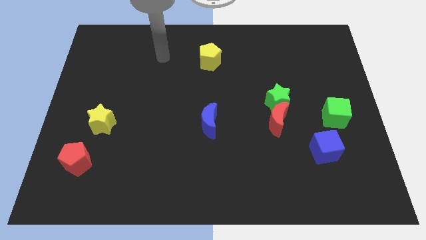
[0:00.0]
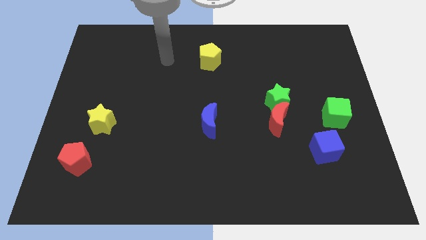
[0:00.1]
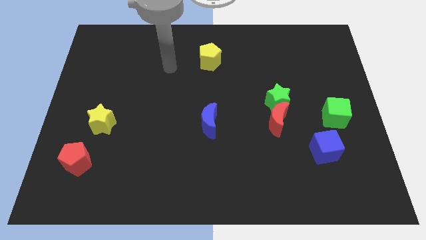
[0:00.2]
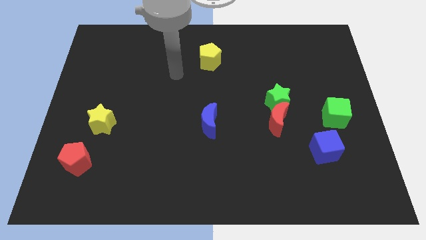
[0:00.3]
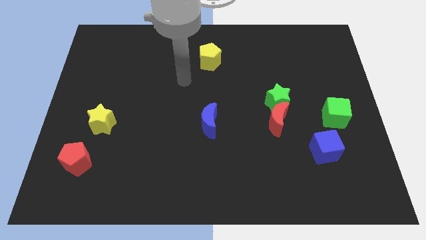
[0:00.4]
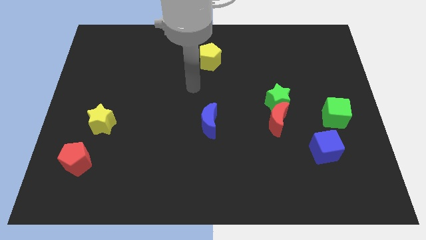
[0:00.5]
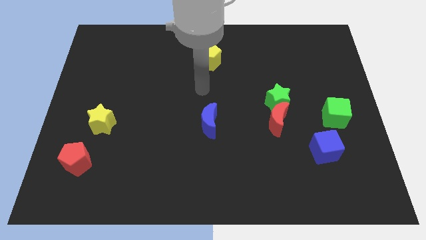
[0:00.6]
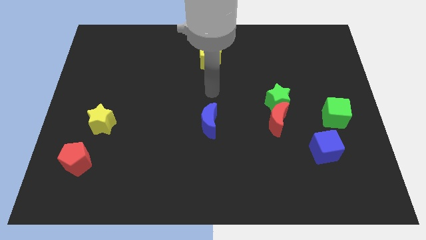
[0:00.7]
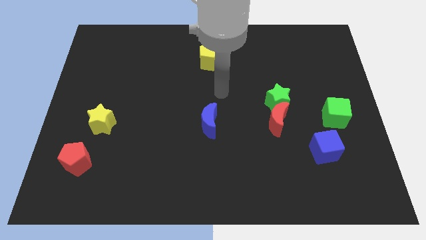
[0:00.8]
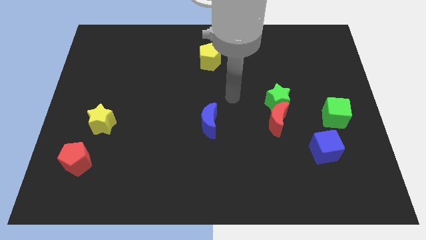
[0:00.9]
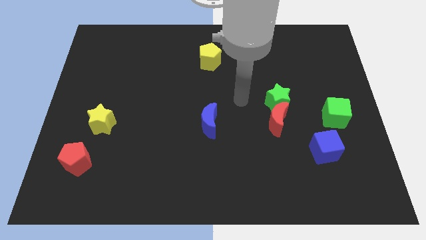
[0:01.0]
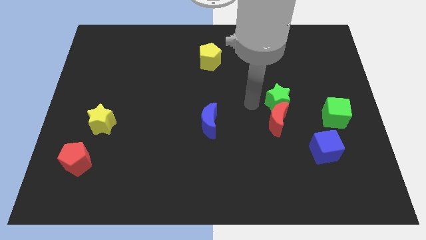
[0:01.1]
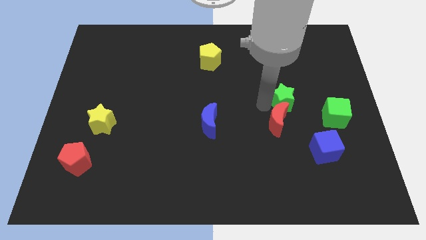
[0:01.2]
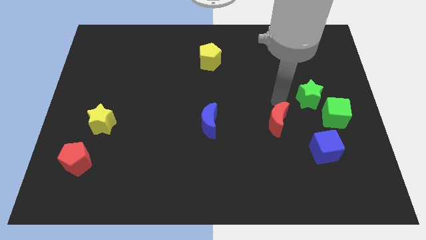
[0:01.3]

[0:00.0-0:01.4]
move the red moon away from the green star

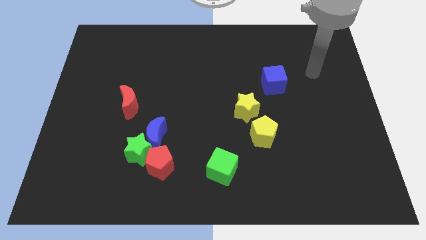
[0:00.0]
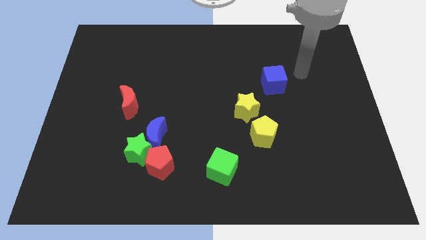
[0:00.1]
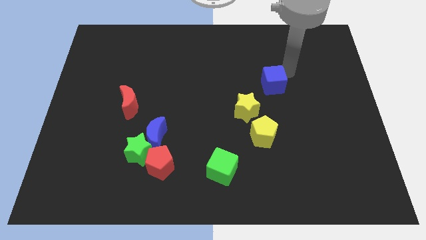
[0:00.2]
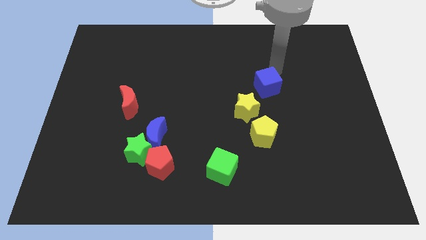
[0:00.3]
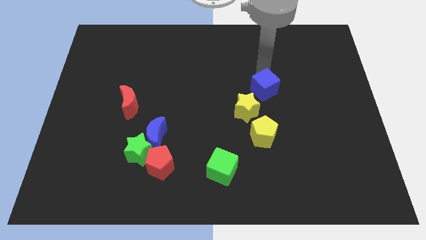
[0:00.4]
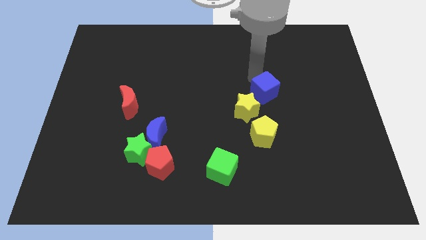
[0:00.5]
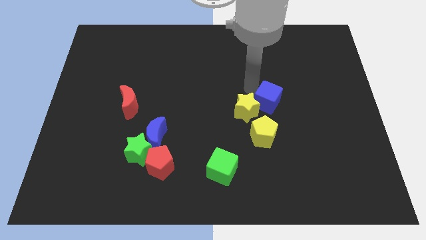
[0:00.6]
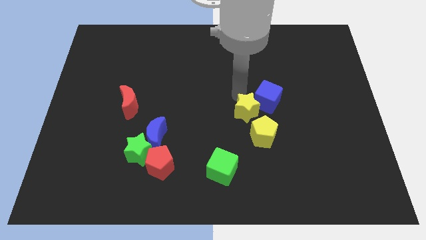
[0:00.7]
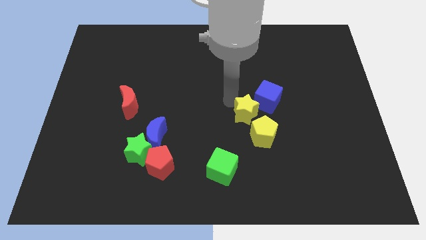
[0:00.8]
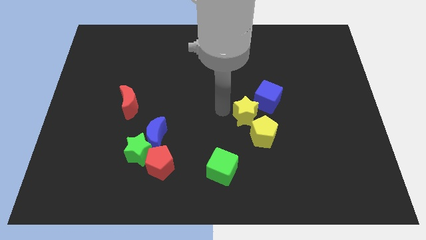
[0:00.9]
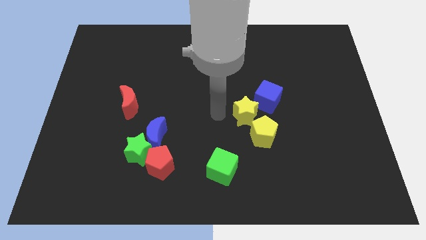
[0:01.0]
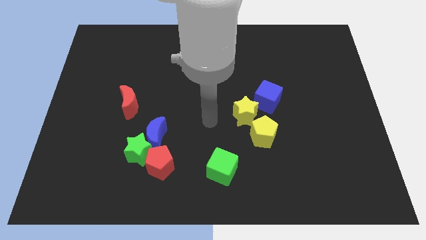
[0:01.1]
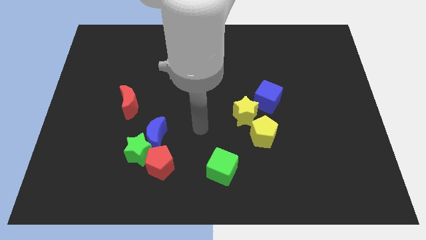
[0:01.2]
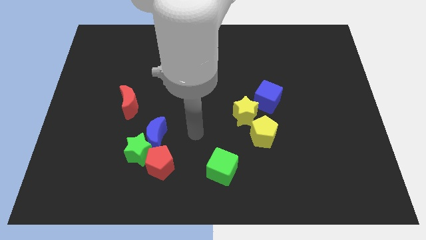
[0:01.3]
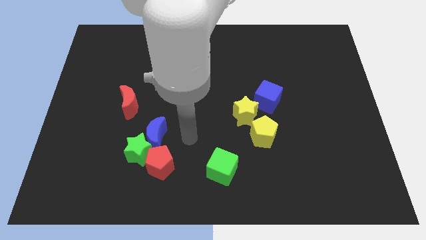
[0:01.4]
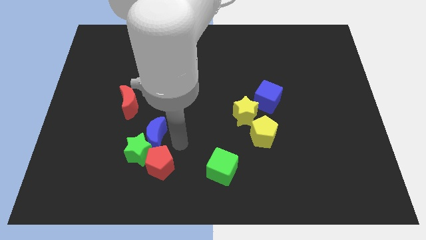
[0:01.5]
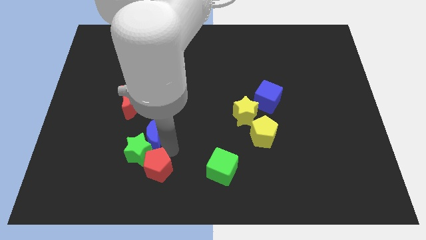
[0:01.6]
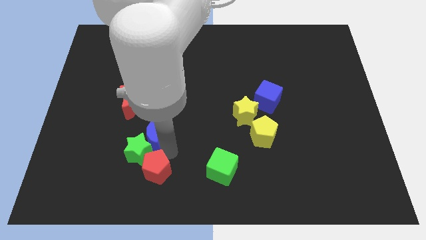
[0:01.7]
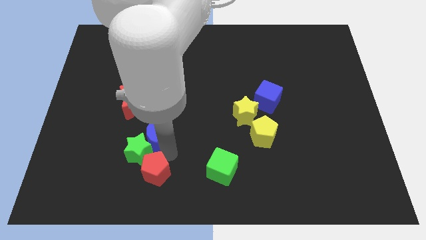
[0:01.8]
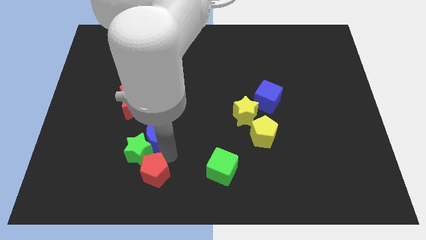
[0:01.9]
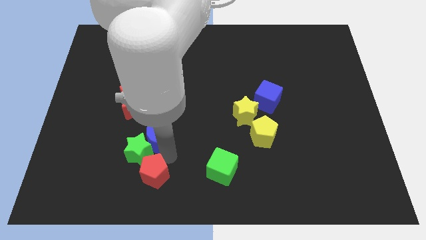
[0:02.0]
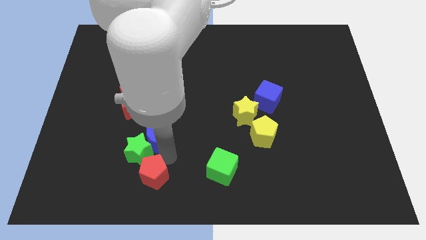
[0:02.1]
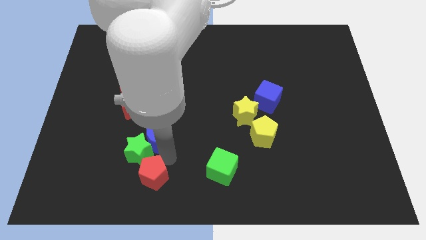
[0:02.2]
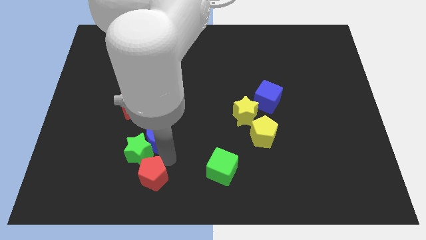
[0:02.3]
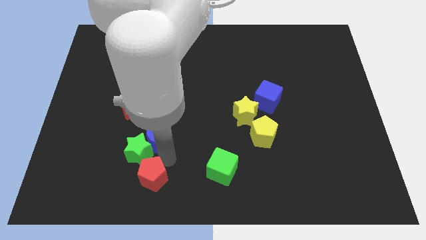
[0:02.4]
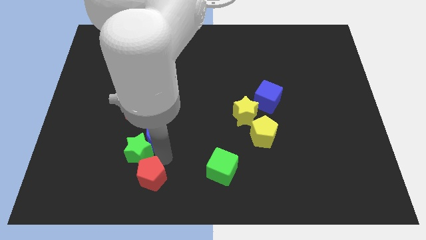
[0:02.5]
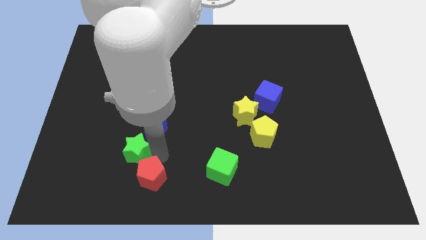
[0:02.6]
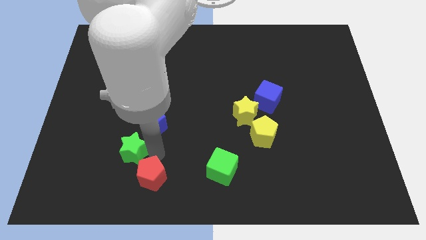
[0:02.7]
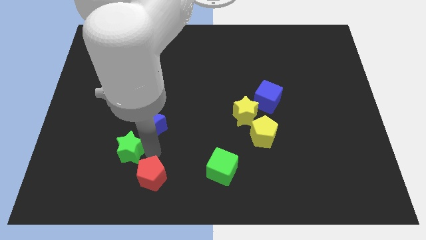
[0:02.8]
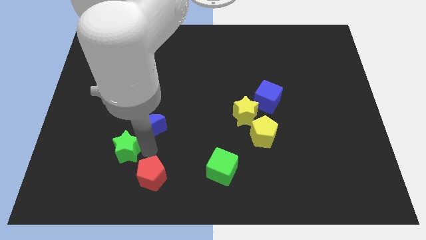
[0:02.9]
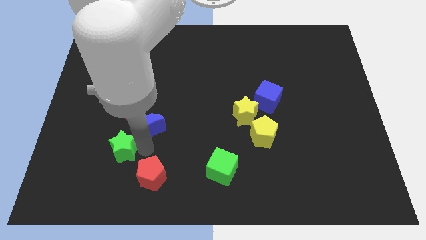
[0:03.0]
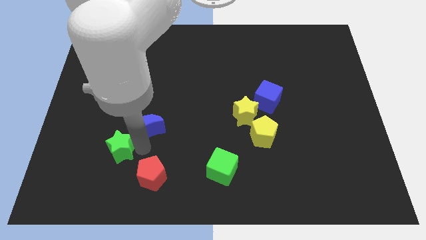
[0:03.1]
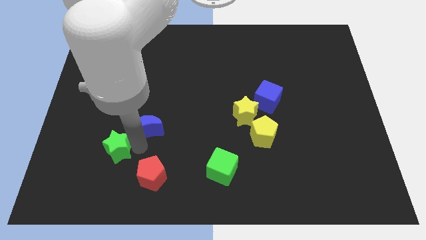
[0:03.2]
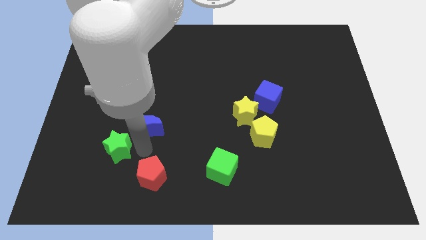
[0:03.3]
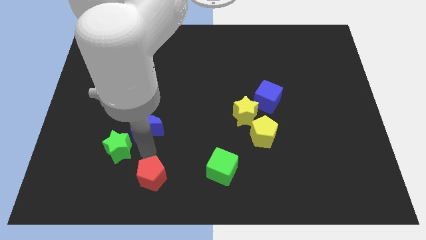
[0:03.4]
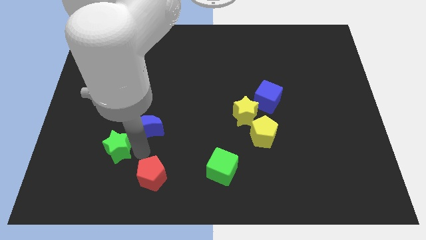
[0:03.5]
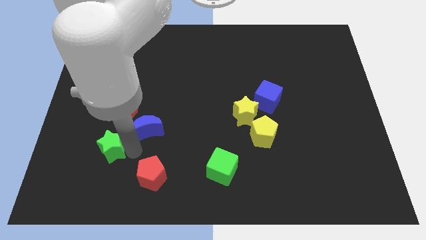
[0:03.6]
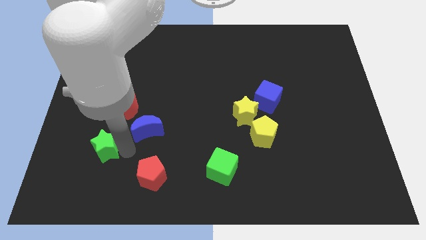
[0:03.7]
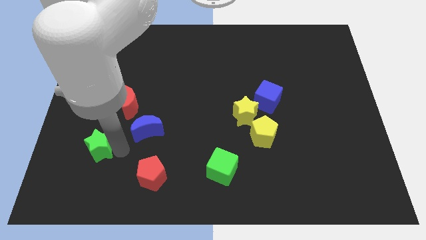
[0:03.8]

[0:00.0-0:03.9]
move the green star away from the blue moon and red pentagon

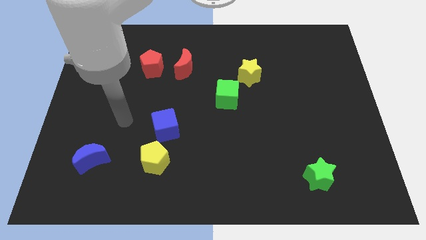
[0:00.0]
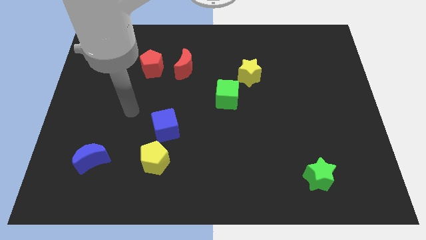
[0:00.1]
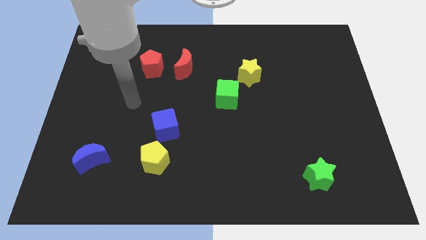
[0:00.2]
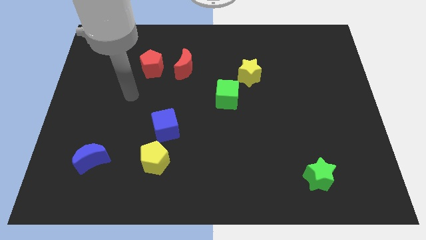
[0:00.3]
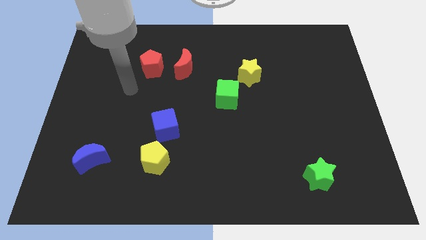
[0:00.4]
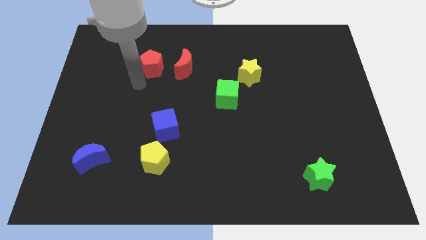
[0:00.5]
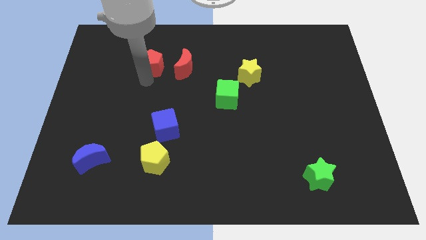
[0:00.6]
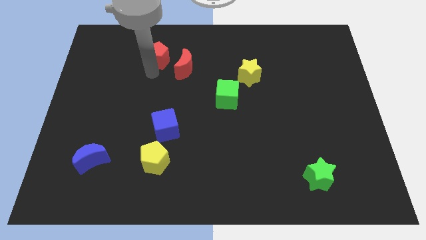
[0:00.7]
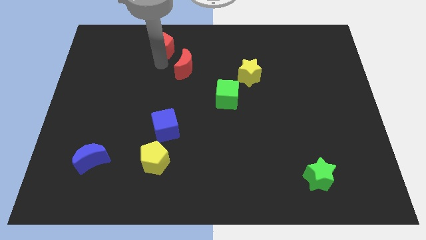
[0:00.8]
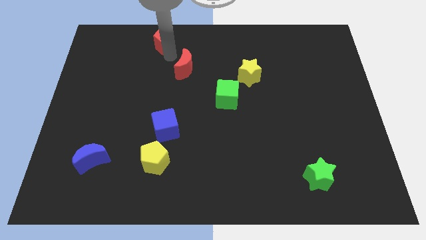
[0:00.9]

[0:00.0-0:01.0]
move the red moon away from the red pentagon

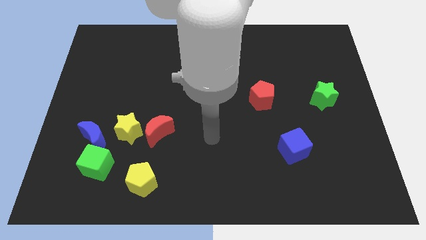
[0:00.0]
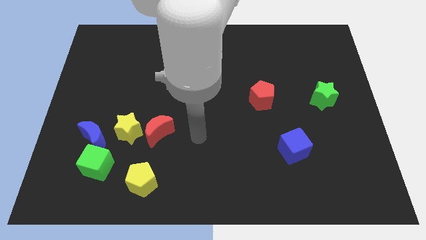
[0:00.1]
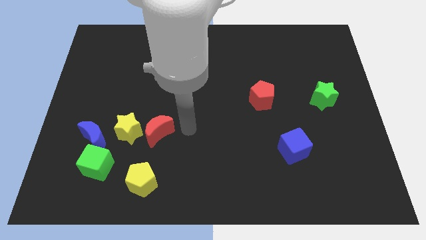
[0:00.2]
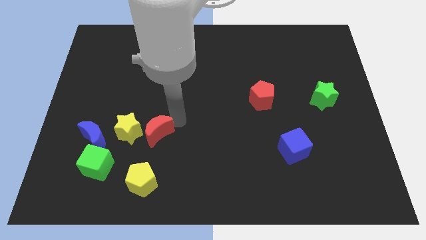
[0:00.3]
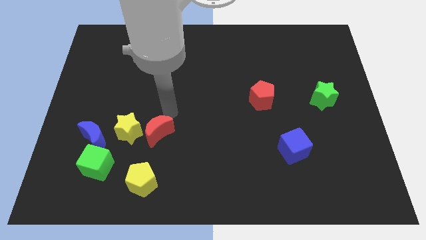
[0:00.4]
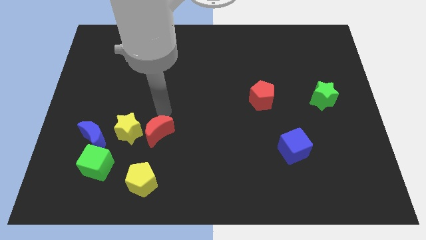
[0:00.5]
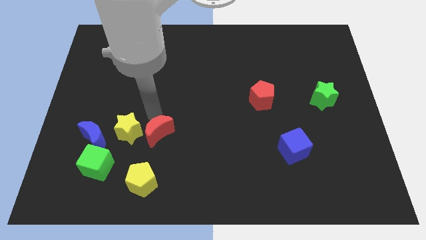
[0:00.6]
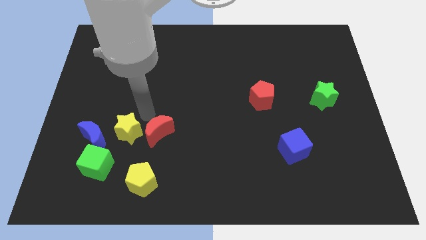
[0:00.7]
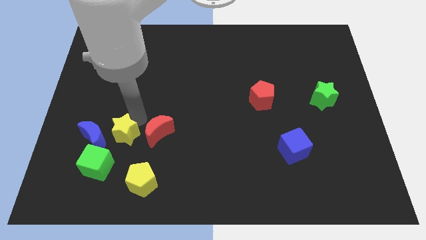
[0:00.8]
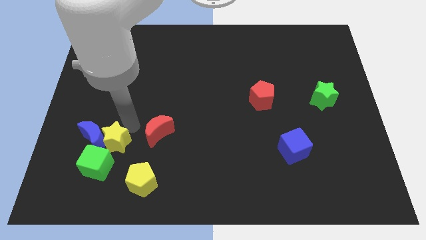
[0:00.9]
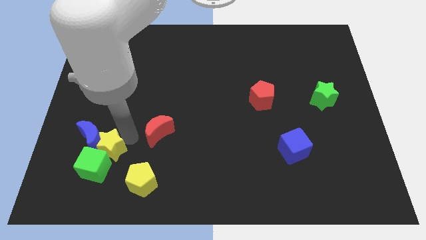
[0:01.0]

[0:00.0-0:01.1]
move the red moon away from the yellow star

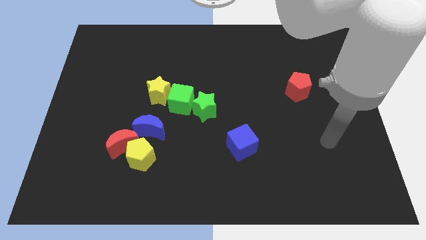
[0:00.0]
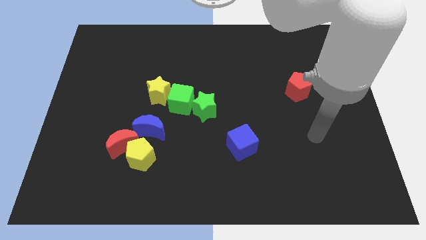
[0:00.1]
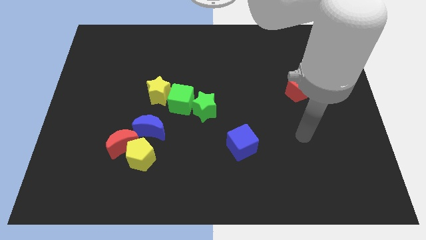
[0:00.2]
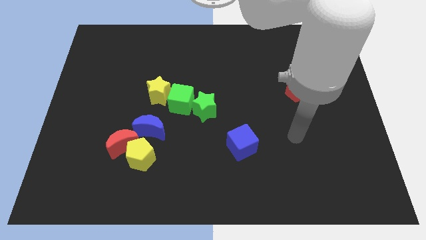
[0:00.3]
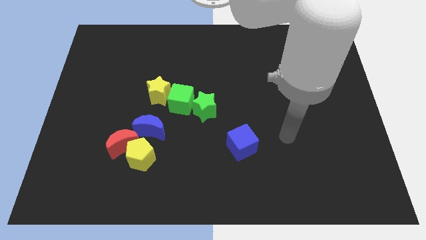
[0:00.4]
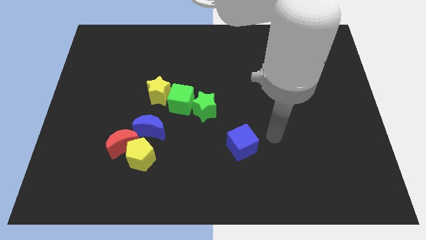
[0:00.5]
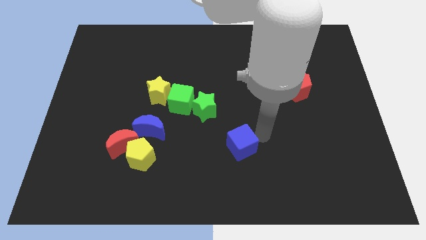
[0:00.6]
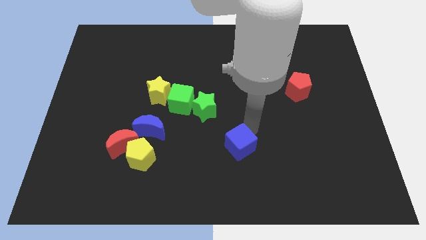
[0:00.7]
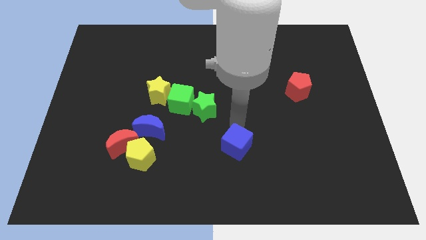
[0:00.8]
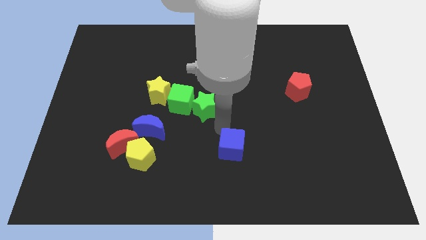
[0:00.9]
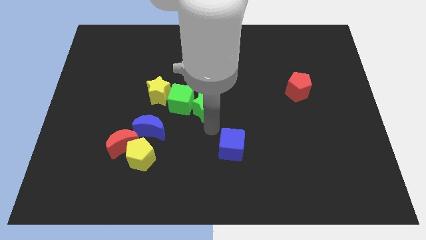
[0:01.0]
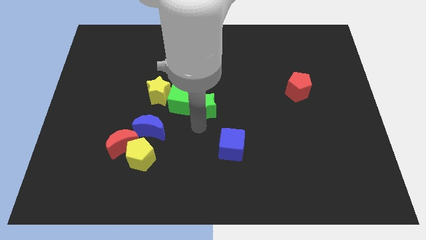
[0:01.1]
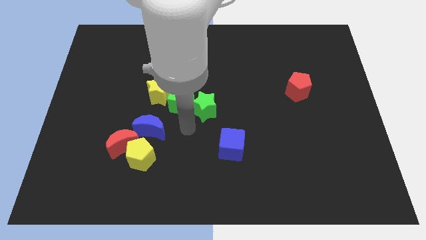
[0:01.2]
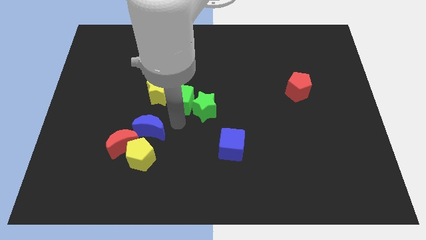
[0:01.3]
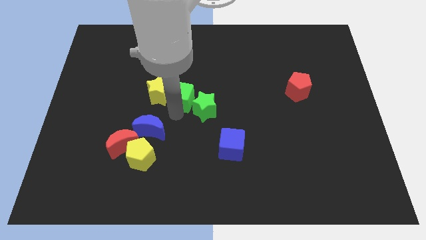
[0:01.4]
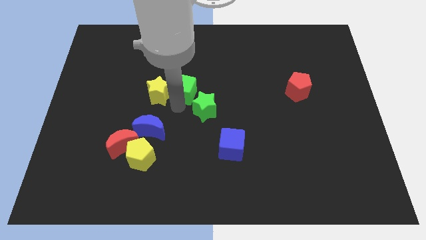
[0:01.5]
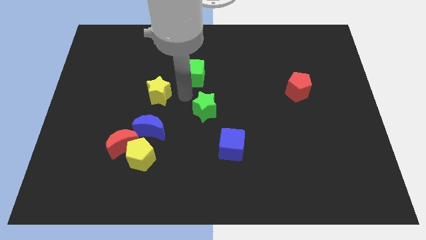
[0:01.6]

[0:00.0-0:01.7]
separate the green star from the green cube

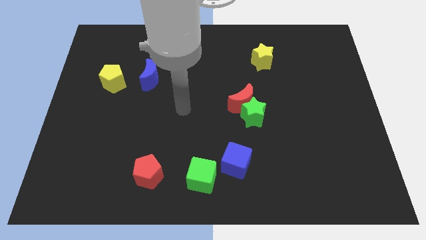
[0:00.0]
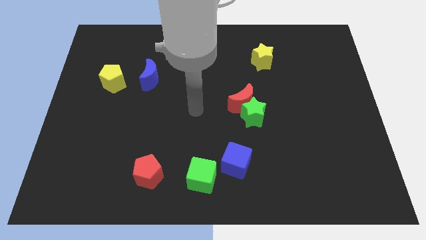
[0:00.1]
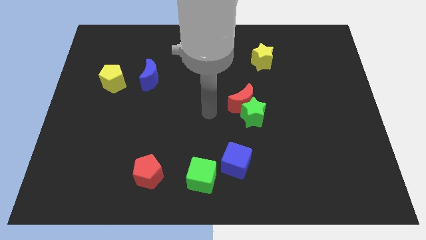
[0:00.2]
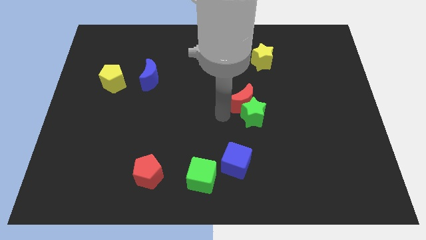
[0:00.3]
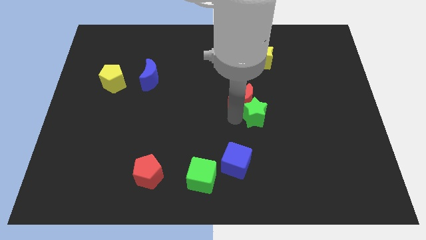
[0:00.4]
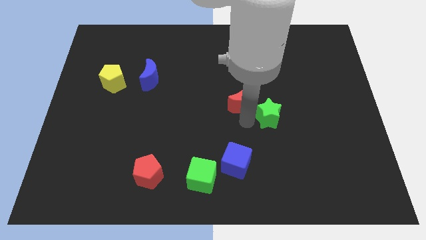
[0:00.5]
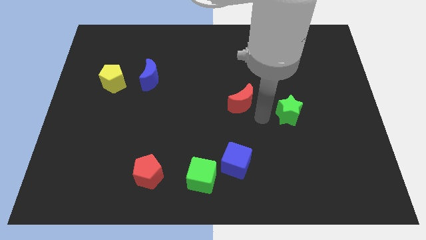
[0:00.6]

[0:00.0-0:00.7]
pull the red moon apart from the green star
